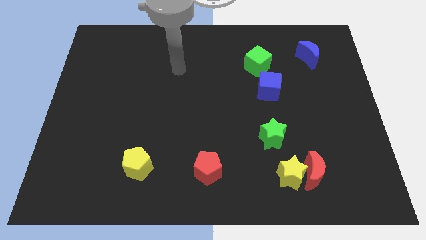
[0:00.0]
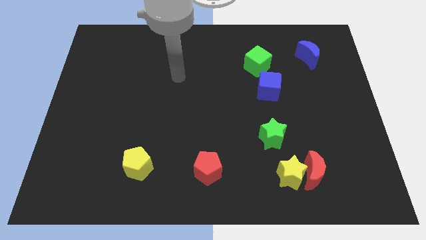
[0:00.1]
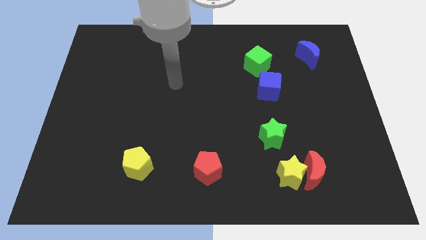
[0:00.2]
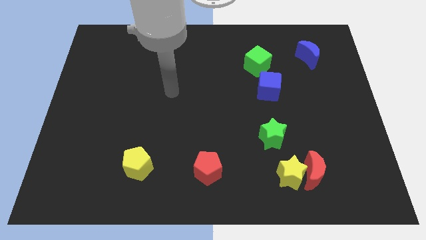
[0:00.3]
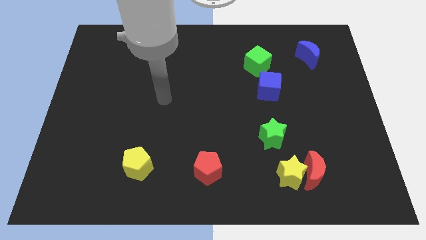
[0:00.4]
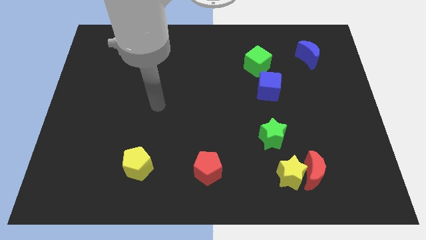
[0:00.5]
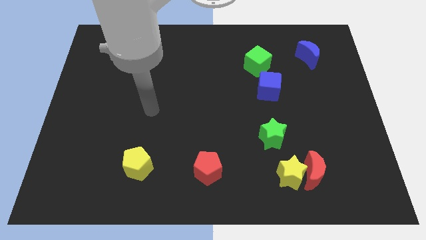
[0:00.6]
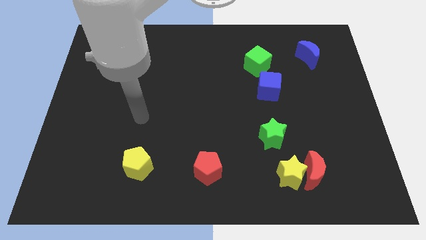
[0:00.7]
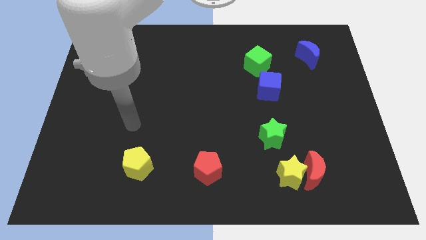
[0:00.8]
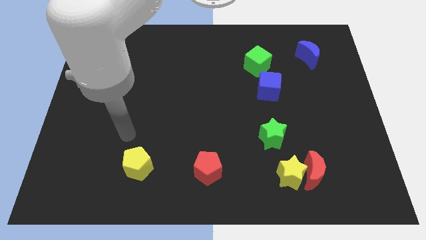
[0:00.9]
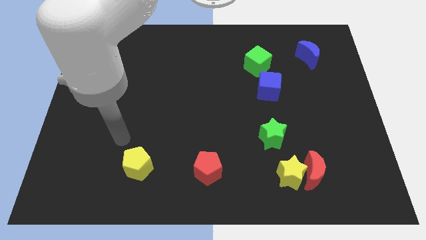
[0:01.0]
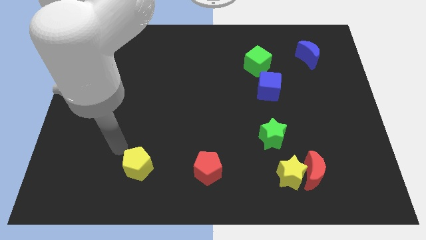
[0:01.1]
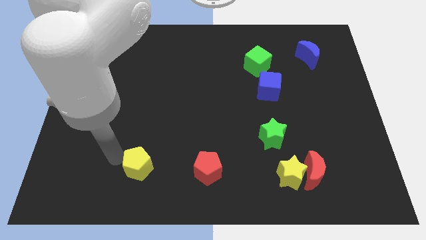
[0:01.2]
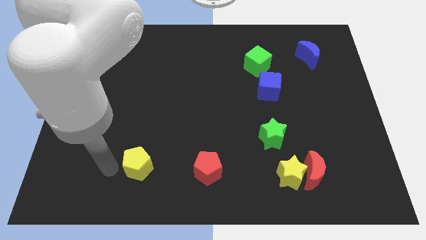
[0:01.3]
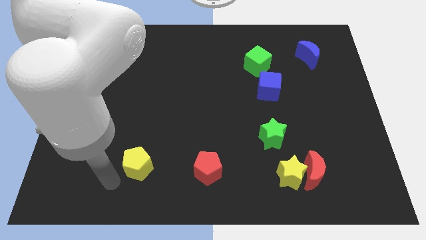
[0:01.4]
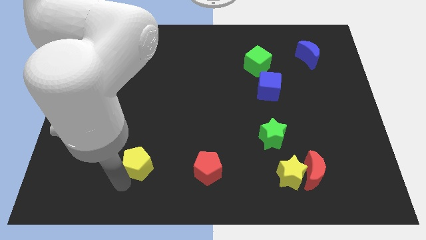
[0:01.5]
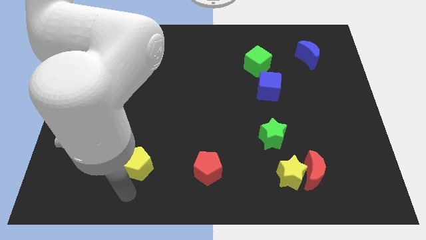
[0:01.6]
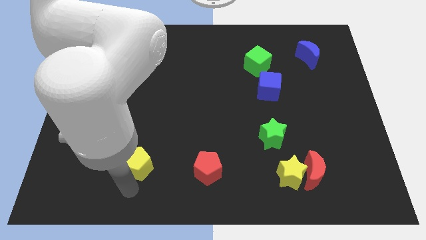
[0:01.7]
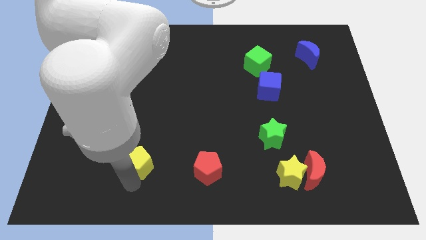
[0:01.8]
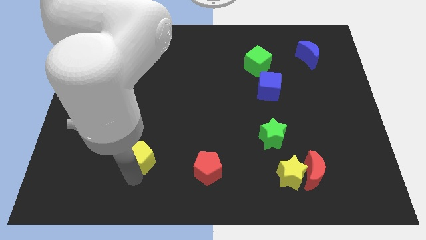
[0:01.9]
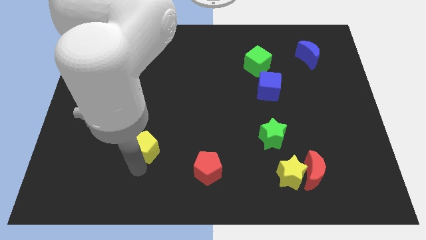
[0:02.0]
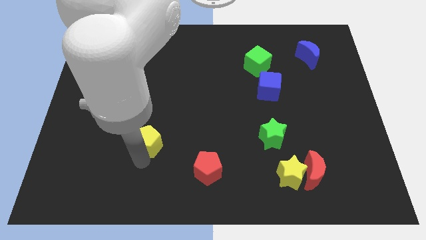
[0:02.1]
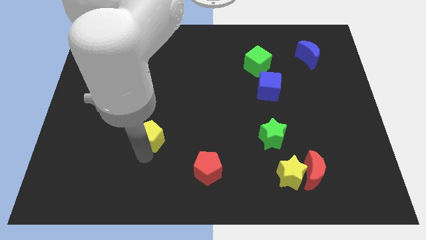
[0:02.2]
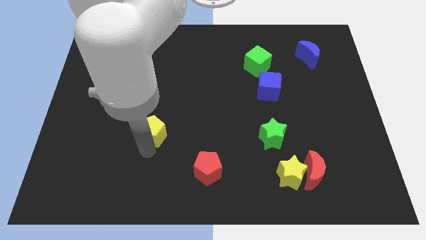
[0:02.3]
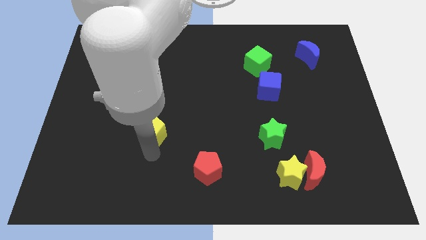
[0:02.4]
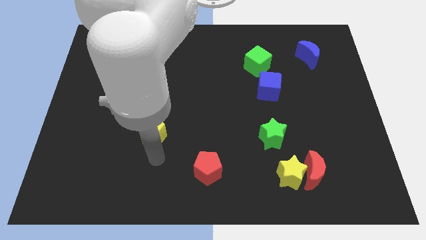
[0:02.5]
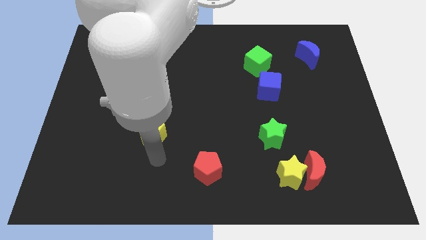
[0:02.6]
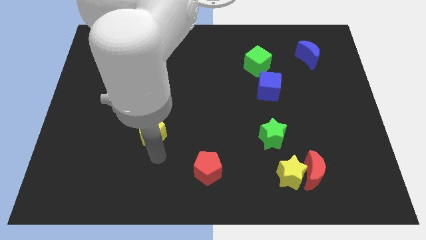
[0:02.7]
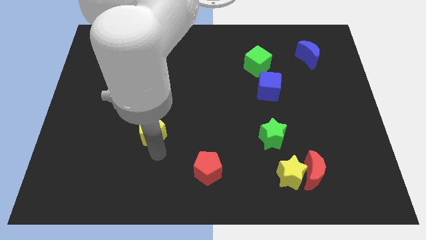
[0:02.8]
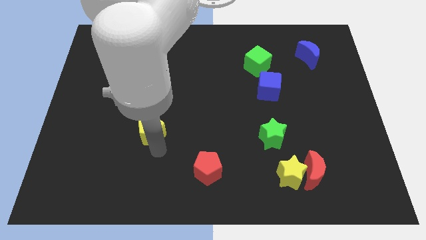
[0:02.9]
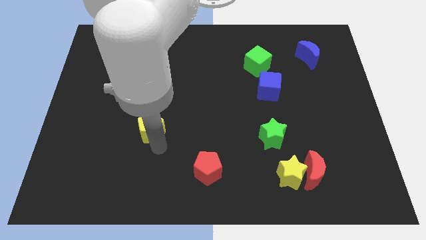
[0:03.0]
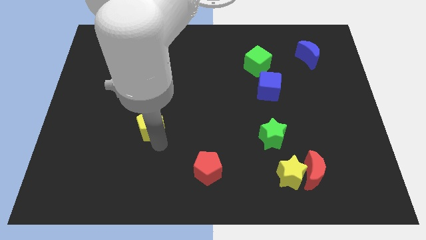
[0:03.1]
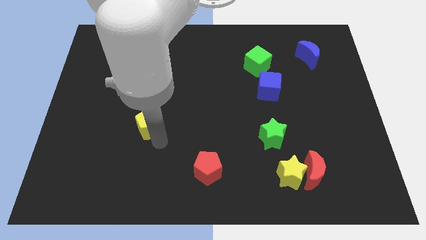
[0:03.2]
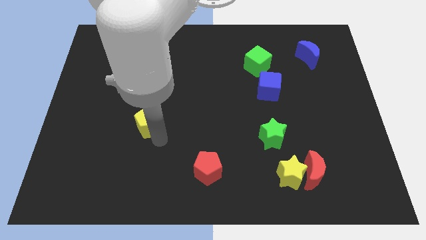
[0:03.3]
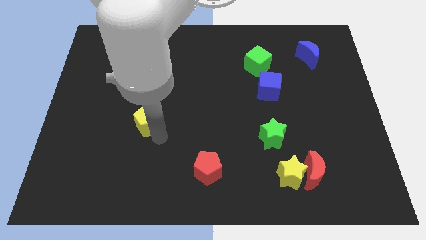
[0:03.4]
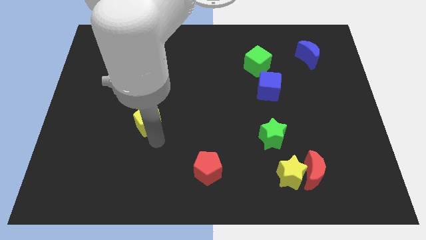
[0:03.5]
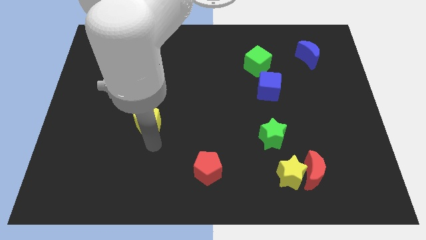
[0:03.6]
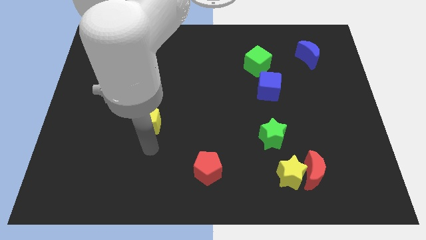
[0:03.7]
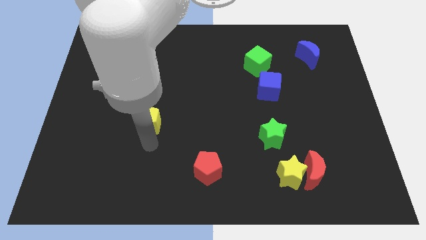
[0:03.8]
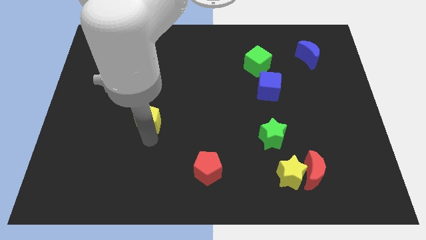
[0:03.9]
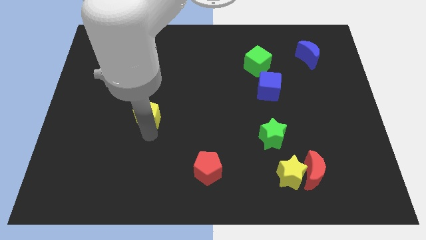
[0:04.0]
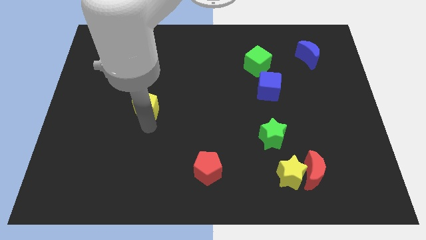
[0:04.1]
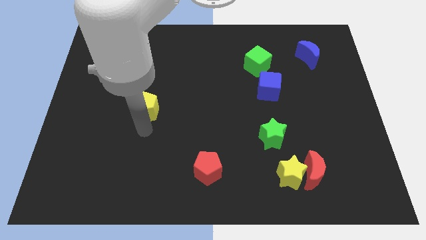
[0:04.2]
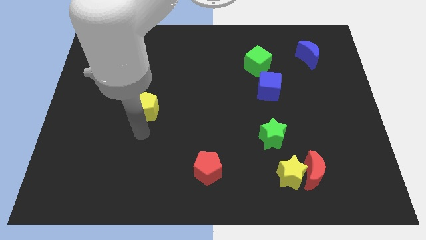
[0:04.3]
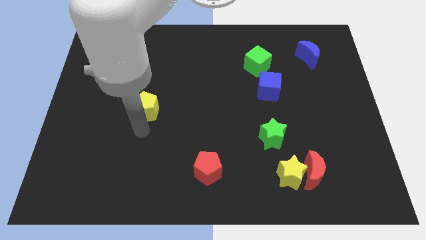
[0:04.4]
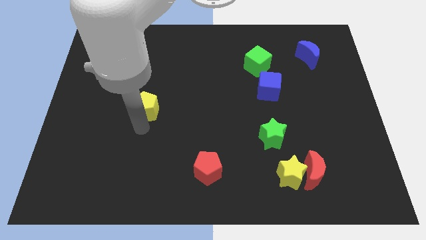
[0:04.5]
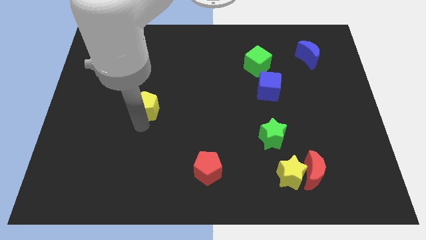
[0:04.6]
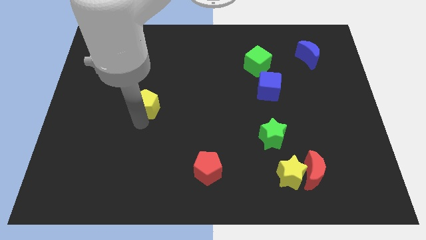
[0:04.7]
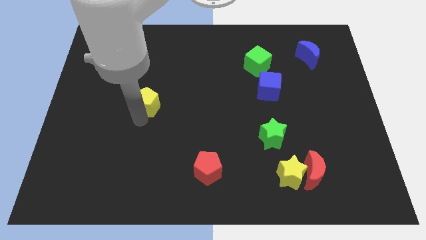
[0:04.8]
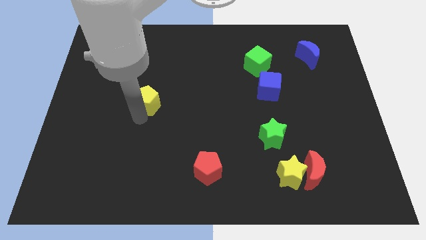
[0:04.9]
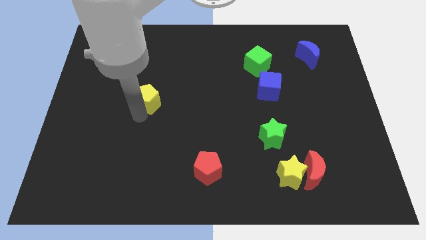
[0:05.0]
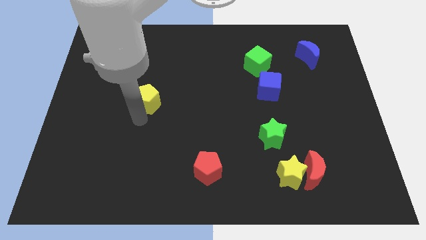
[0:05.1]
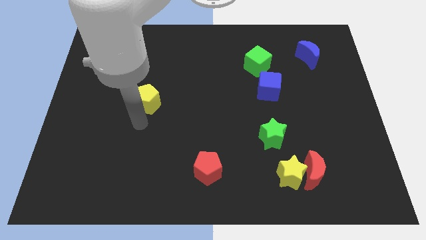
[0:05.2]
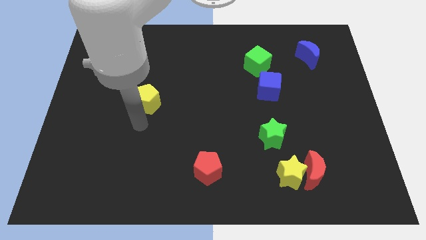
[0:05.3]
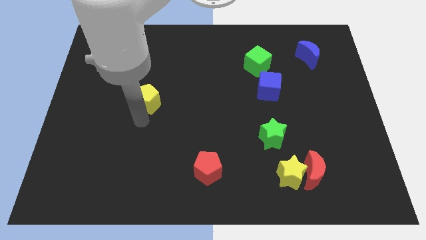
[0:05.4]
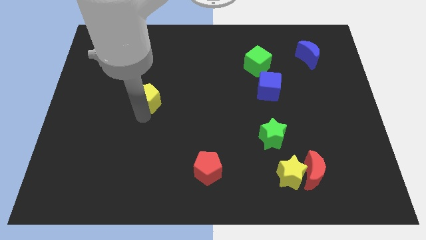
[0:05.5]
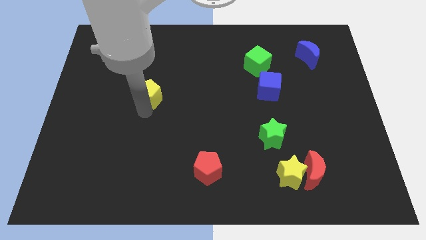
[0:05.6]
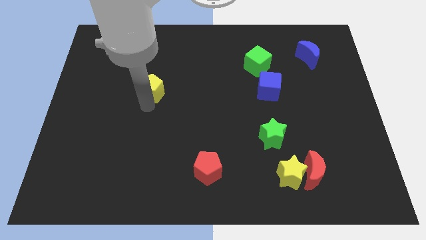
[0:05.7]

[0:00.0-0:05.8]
slide the yellow pentagon up

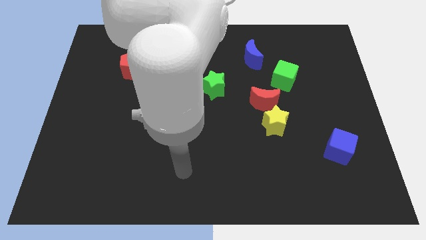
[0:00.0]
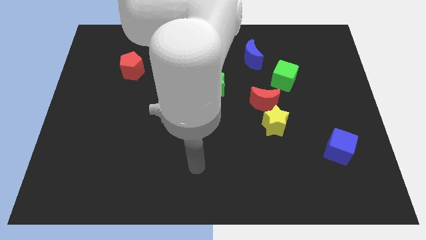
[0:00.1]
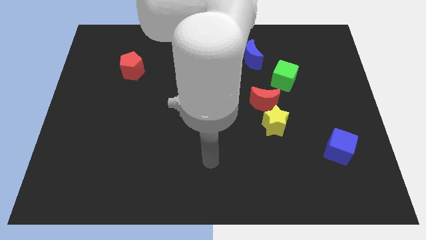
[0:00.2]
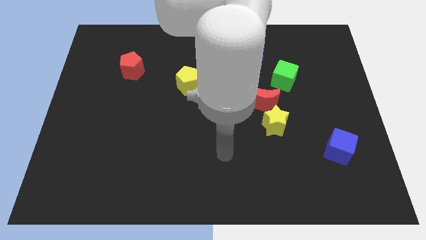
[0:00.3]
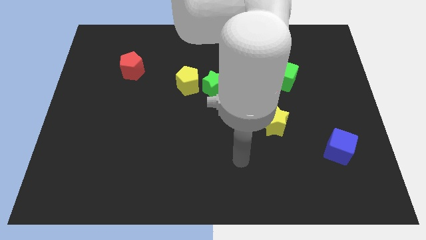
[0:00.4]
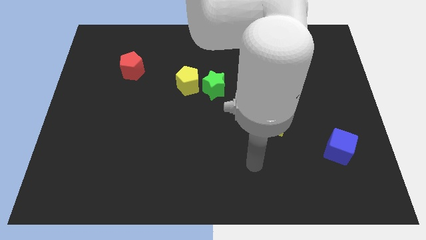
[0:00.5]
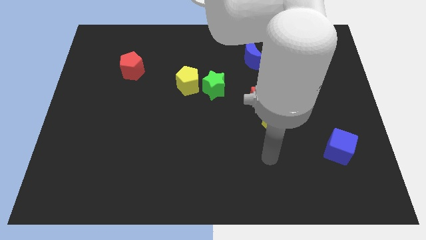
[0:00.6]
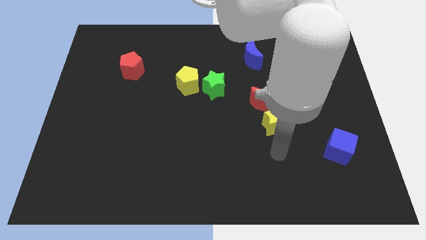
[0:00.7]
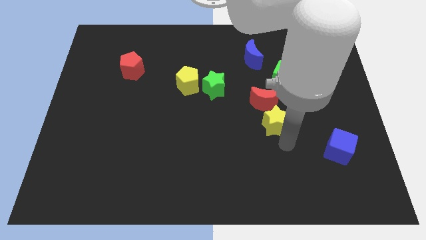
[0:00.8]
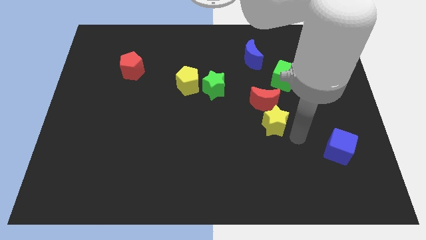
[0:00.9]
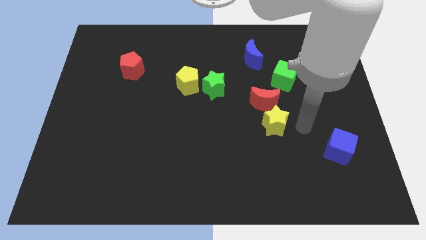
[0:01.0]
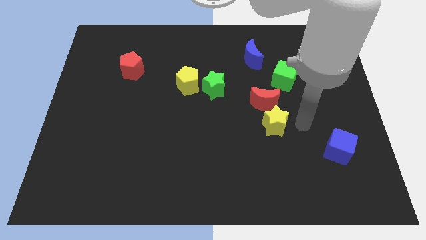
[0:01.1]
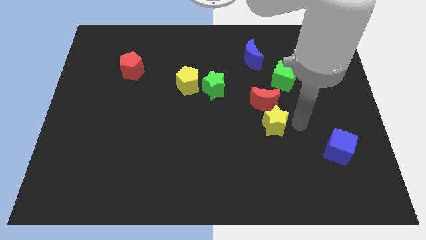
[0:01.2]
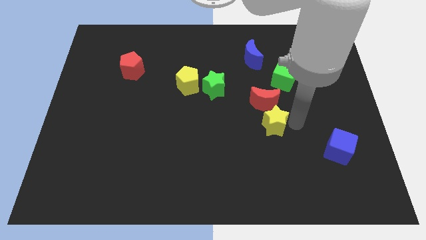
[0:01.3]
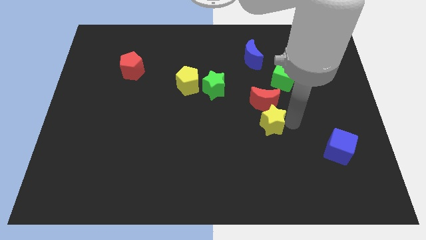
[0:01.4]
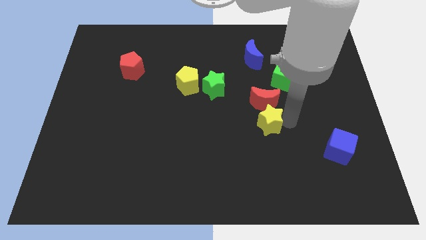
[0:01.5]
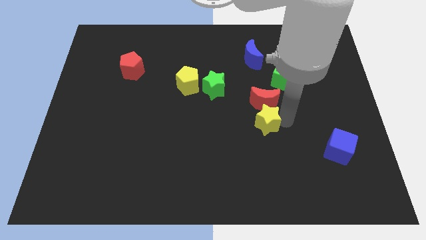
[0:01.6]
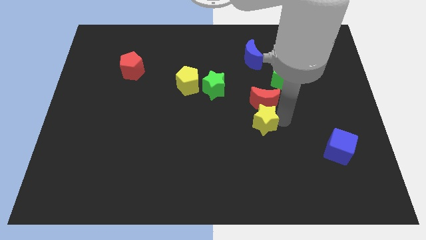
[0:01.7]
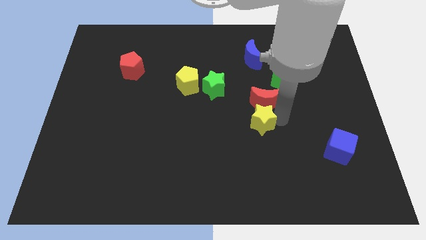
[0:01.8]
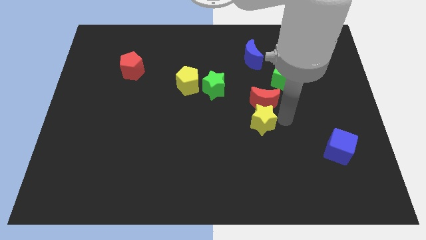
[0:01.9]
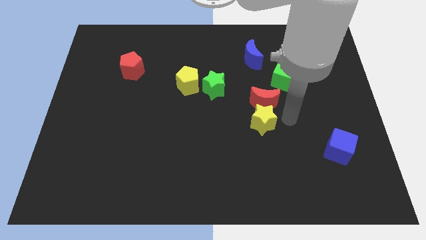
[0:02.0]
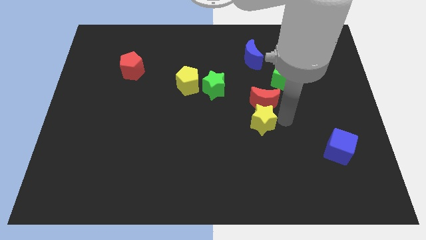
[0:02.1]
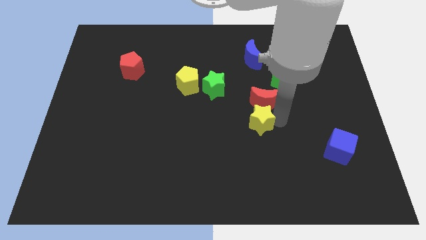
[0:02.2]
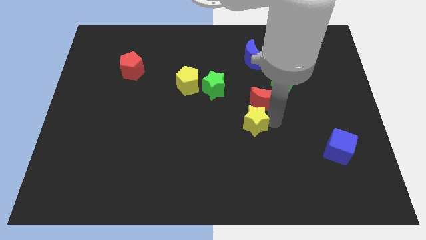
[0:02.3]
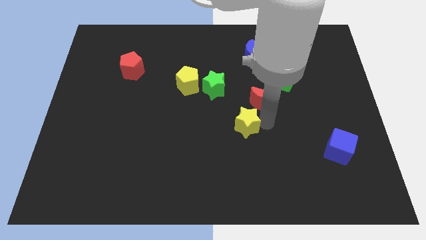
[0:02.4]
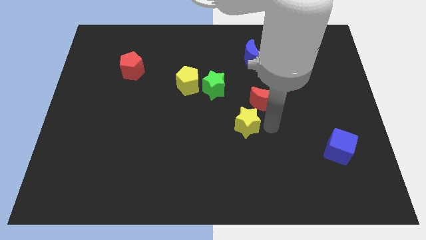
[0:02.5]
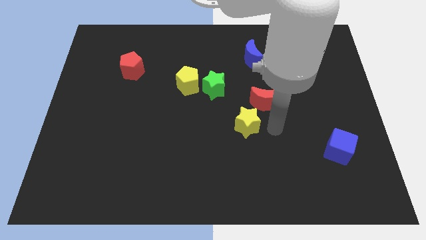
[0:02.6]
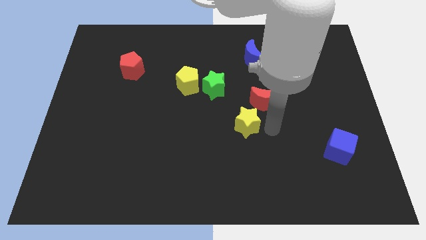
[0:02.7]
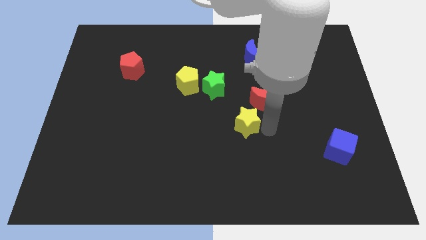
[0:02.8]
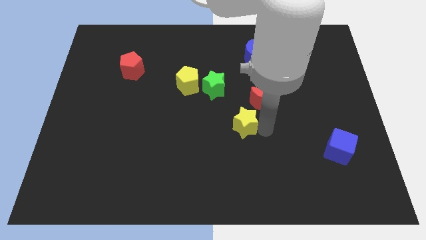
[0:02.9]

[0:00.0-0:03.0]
slide the yellow star a little left
